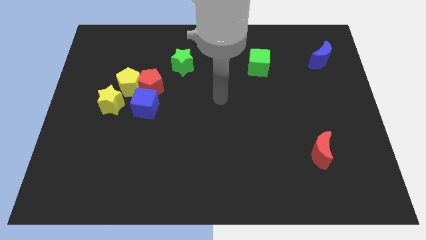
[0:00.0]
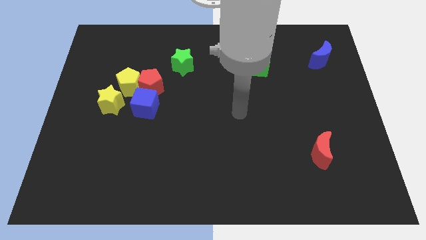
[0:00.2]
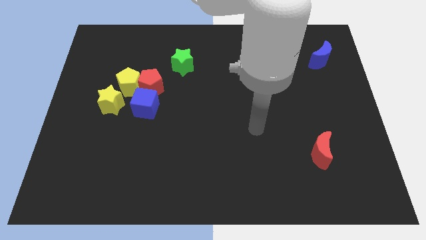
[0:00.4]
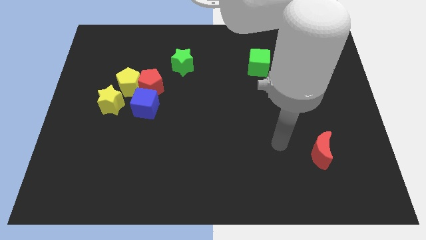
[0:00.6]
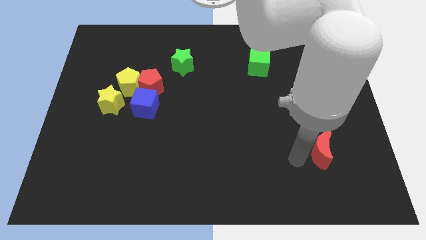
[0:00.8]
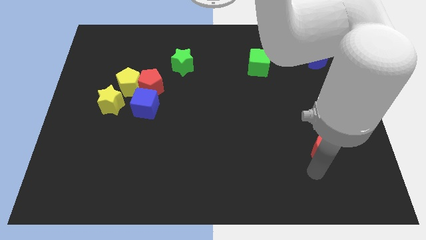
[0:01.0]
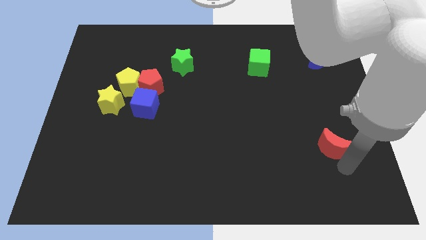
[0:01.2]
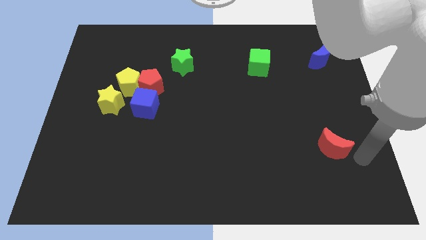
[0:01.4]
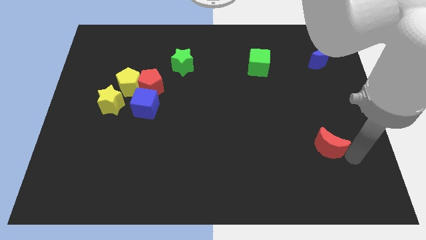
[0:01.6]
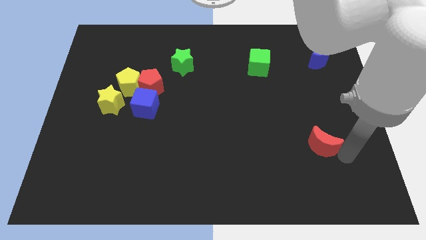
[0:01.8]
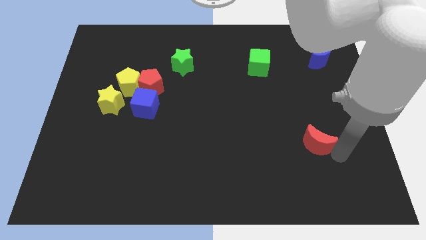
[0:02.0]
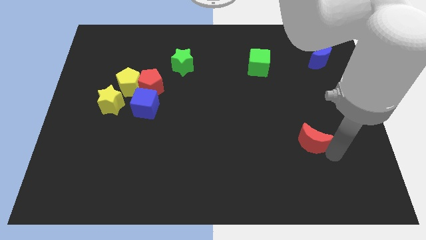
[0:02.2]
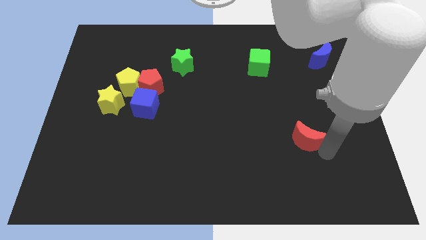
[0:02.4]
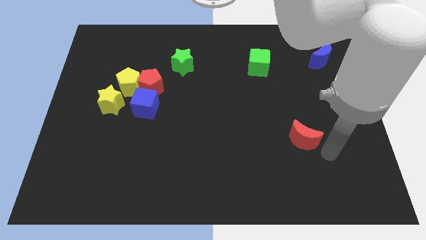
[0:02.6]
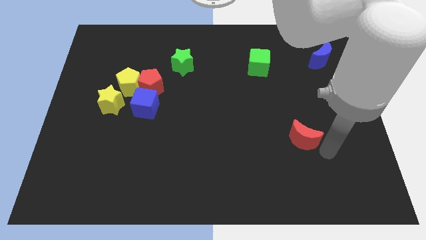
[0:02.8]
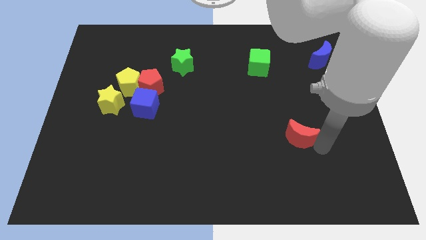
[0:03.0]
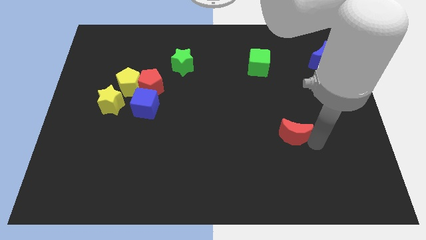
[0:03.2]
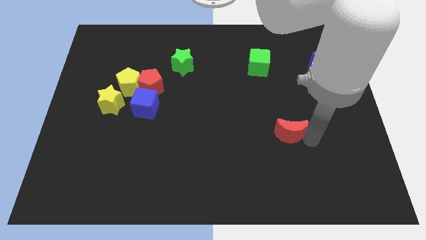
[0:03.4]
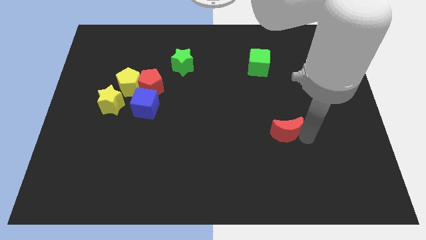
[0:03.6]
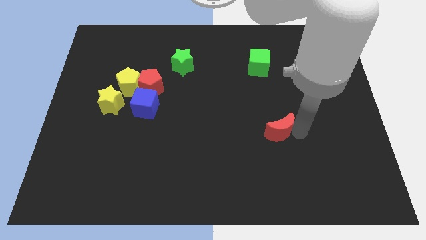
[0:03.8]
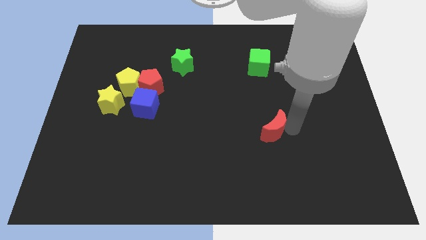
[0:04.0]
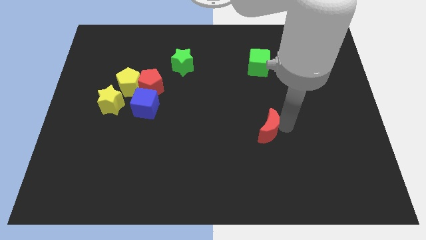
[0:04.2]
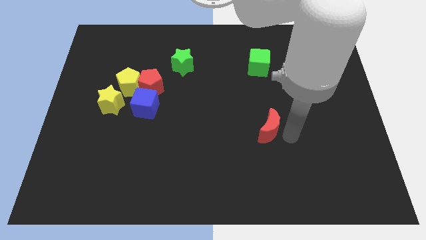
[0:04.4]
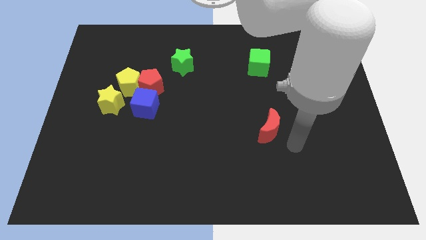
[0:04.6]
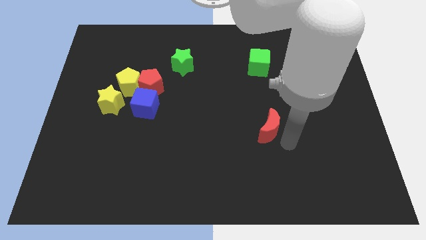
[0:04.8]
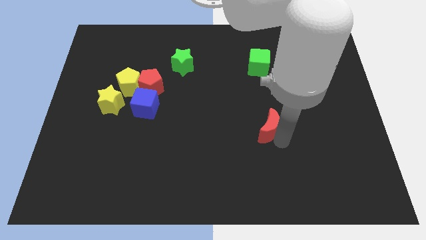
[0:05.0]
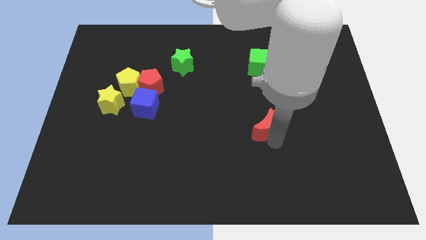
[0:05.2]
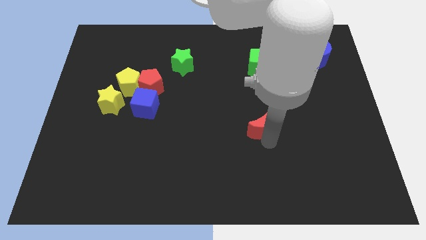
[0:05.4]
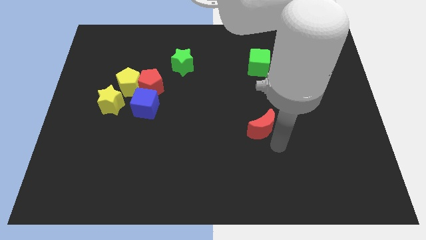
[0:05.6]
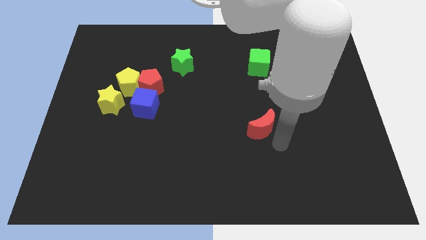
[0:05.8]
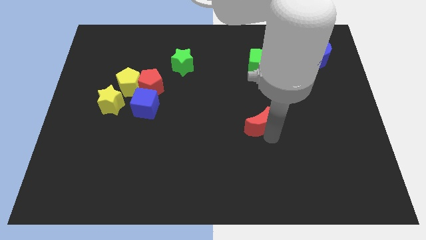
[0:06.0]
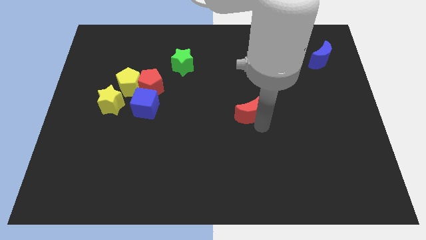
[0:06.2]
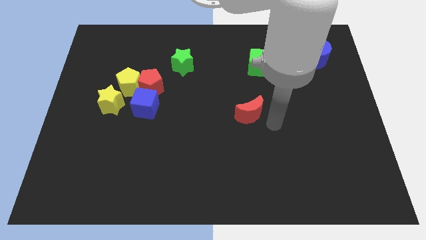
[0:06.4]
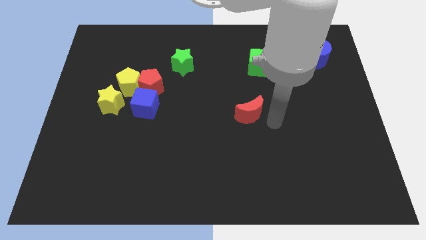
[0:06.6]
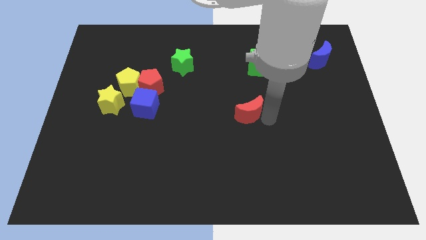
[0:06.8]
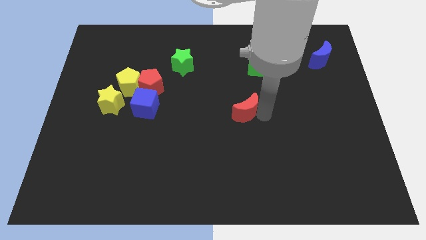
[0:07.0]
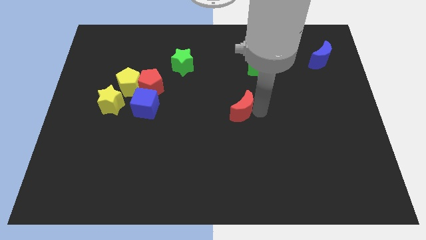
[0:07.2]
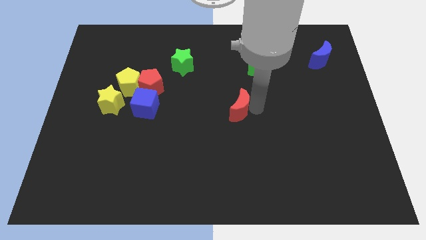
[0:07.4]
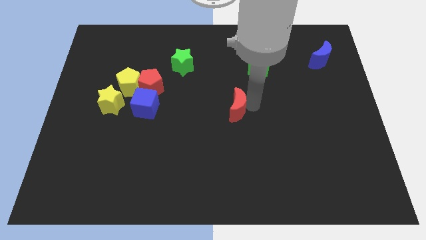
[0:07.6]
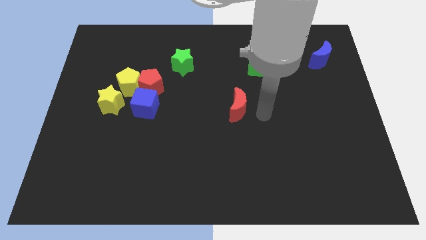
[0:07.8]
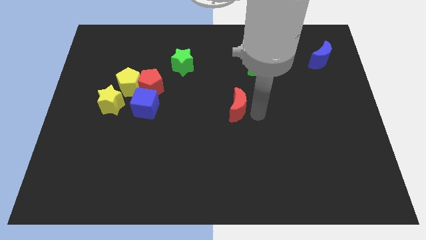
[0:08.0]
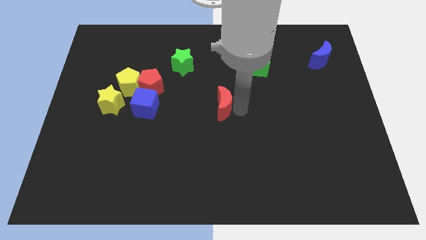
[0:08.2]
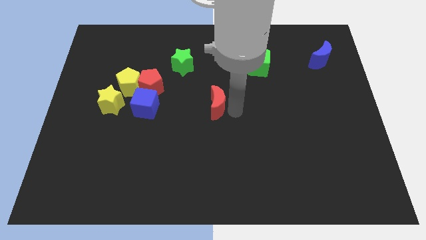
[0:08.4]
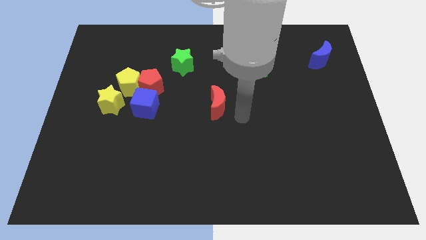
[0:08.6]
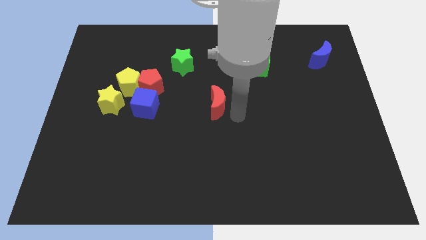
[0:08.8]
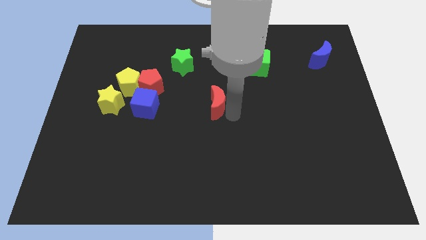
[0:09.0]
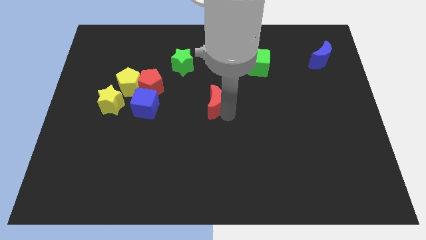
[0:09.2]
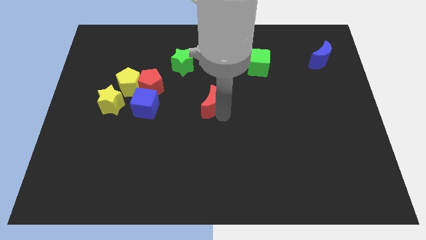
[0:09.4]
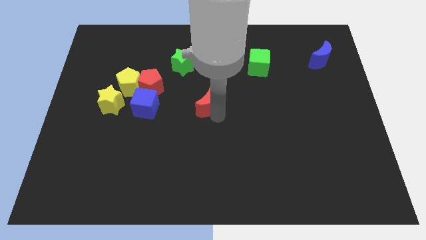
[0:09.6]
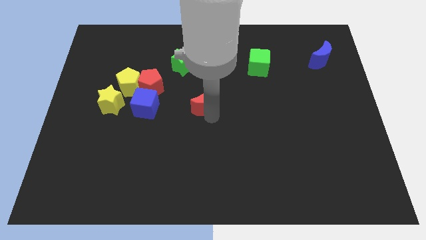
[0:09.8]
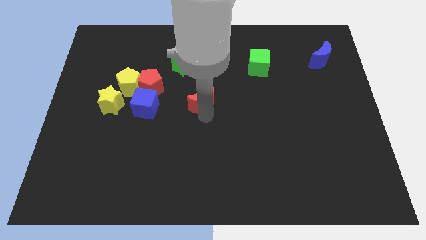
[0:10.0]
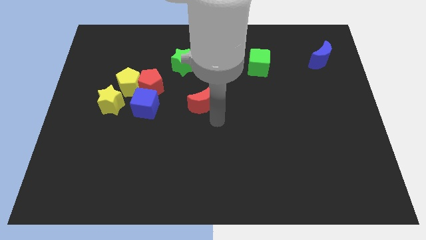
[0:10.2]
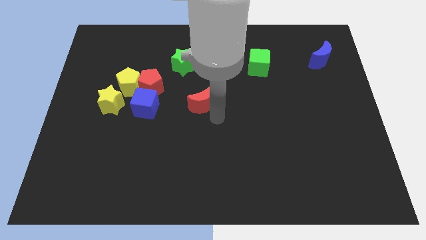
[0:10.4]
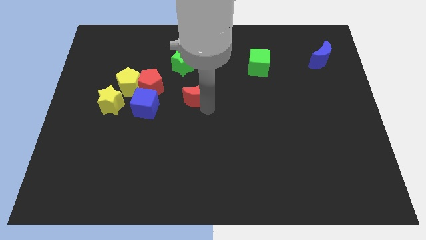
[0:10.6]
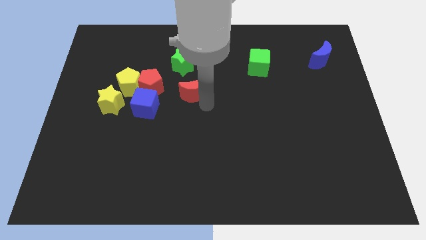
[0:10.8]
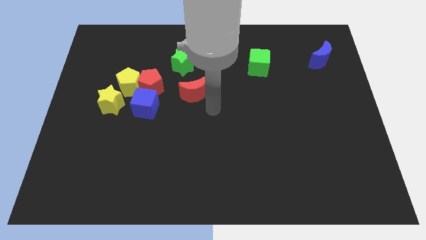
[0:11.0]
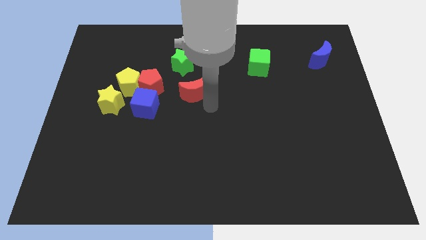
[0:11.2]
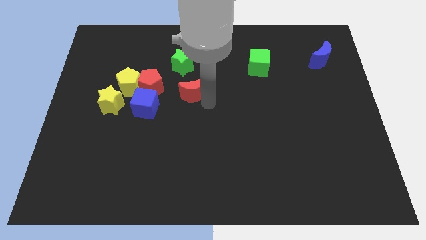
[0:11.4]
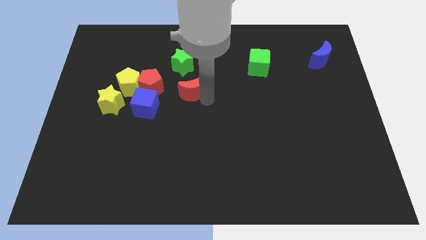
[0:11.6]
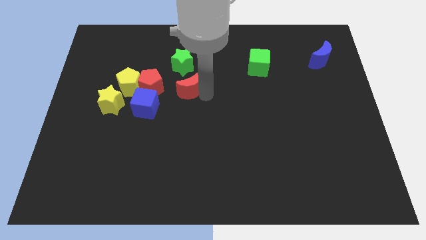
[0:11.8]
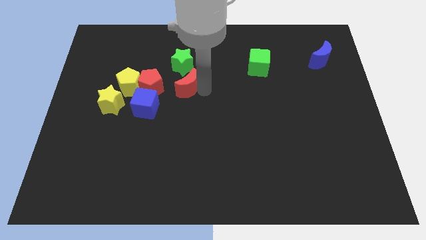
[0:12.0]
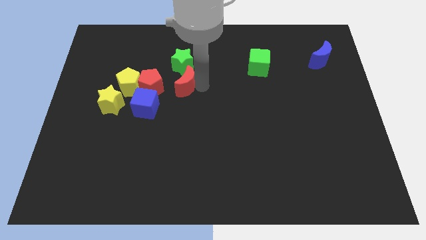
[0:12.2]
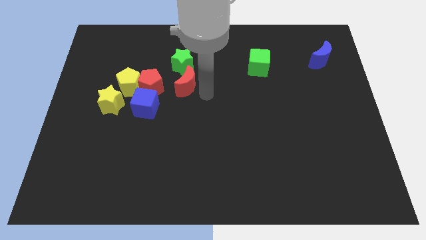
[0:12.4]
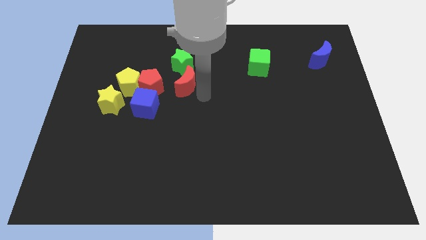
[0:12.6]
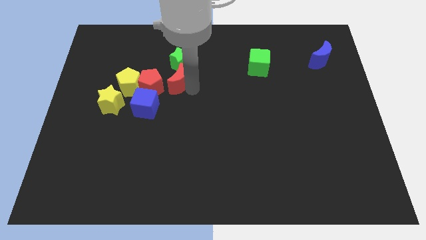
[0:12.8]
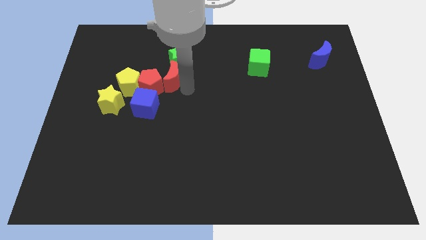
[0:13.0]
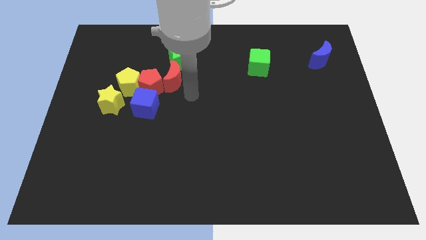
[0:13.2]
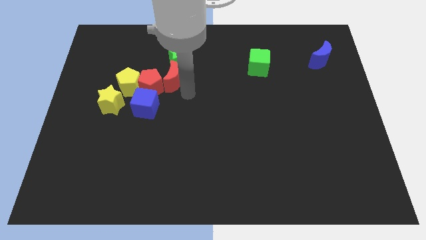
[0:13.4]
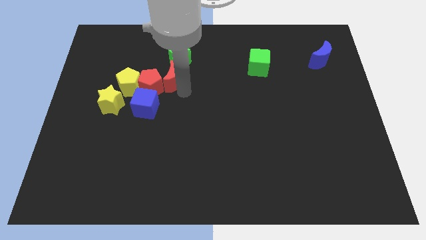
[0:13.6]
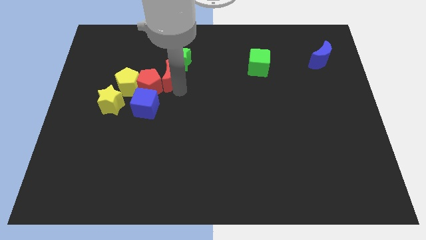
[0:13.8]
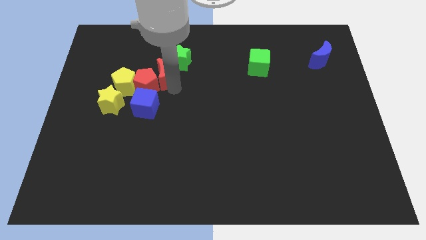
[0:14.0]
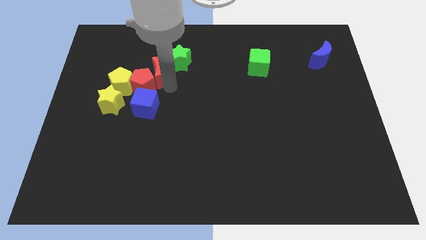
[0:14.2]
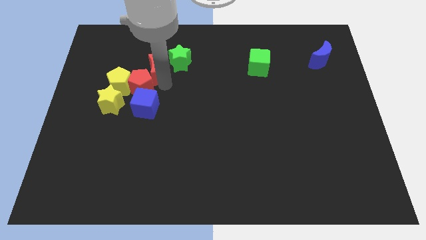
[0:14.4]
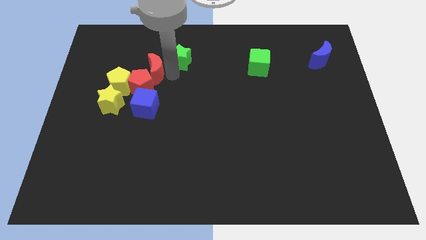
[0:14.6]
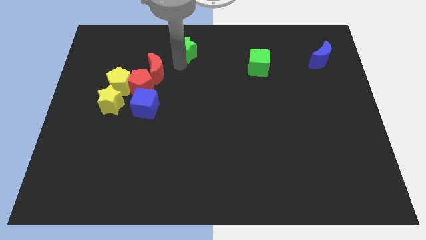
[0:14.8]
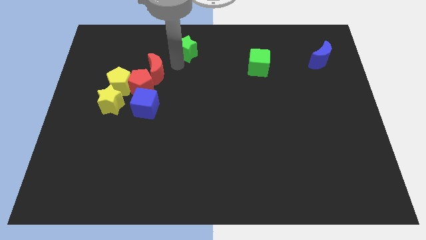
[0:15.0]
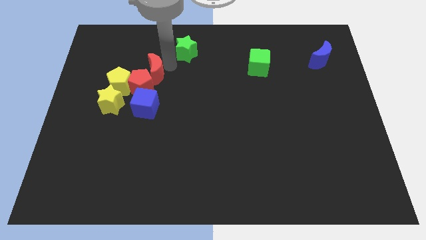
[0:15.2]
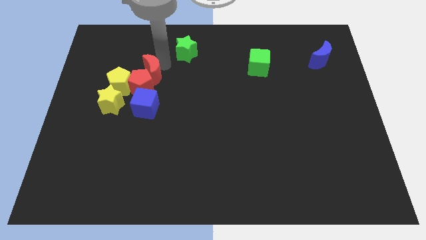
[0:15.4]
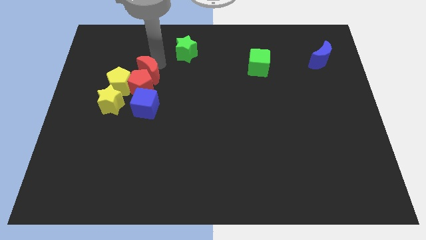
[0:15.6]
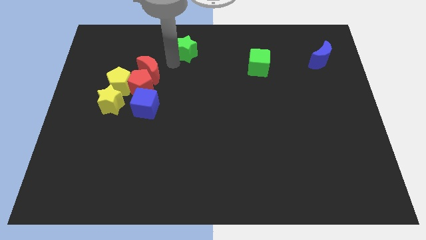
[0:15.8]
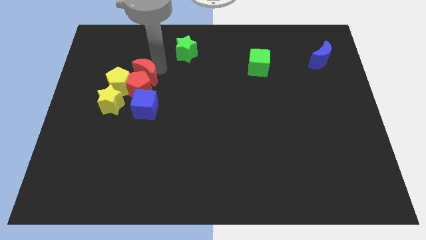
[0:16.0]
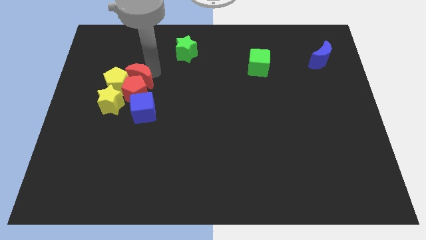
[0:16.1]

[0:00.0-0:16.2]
push the red moon to the yellow pentagon
